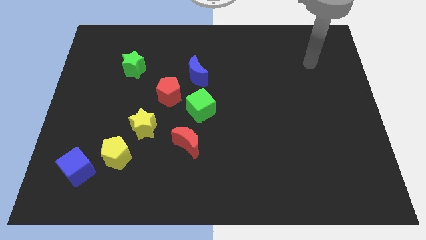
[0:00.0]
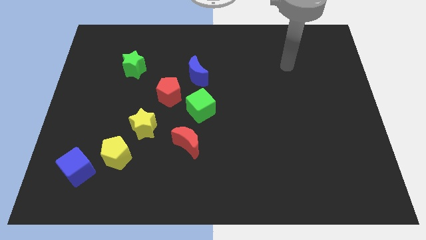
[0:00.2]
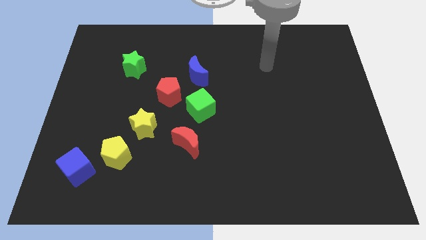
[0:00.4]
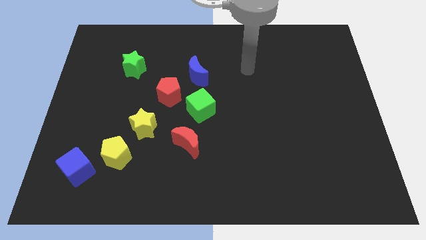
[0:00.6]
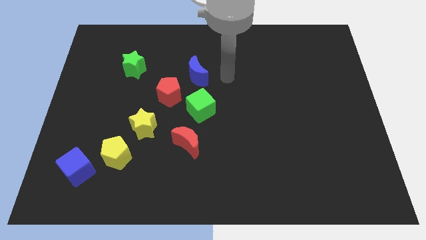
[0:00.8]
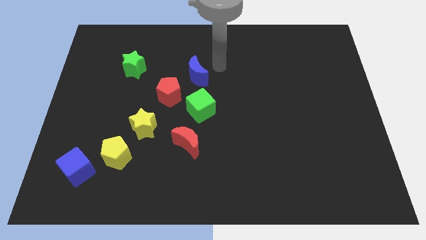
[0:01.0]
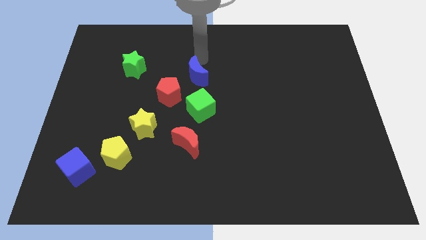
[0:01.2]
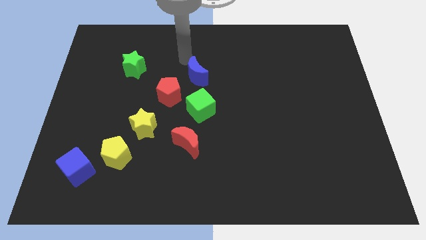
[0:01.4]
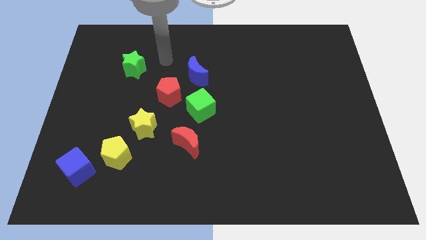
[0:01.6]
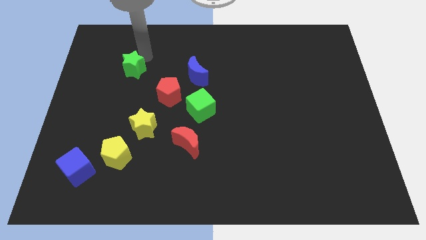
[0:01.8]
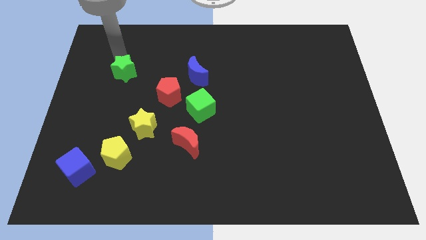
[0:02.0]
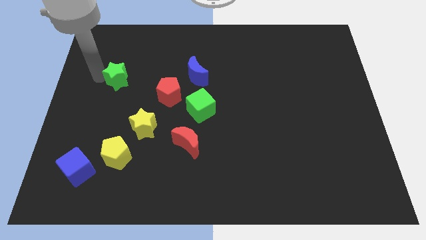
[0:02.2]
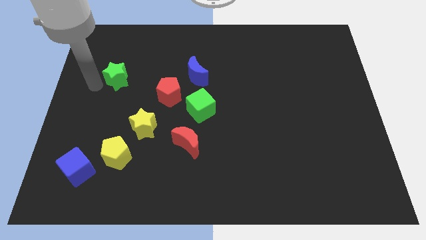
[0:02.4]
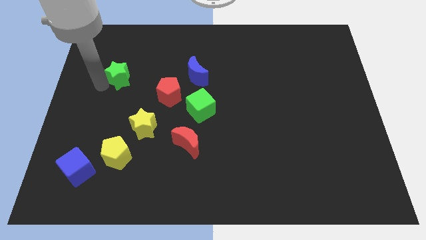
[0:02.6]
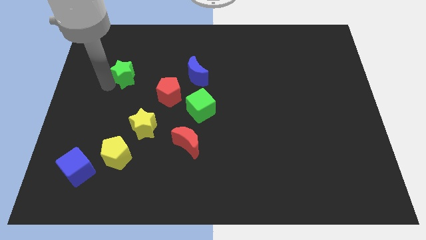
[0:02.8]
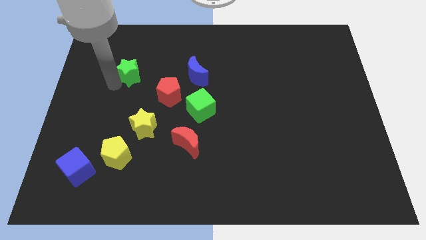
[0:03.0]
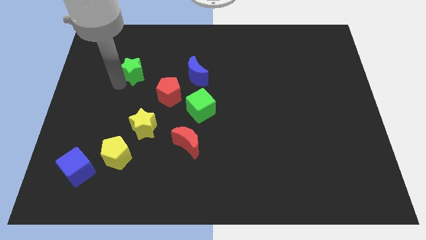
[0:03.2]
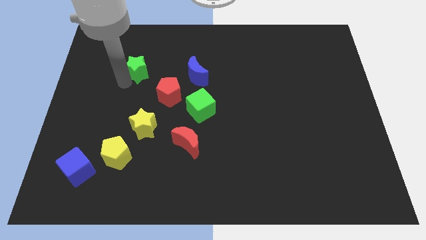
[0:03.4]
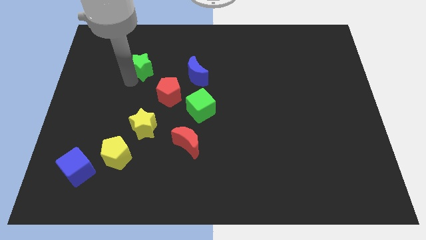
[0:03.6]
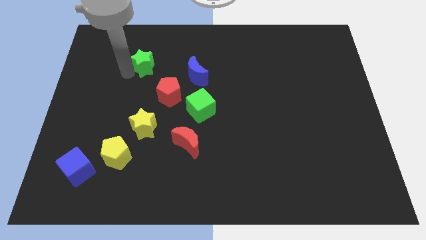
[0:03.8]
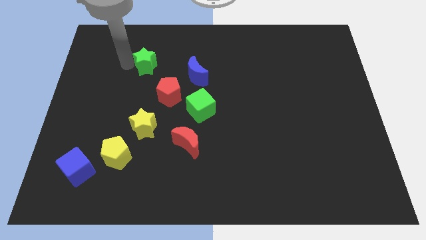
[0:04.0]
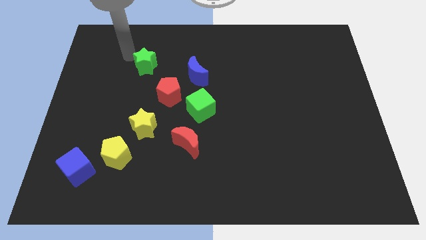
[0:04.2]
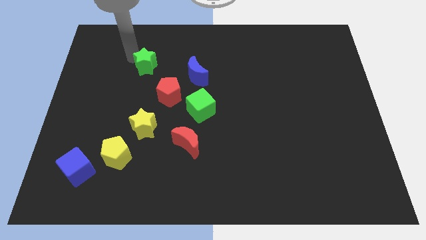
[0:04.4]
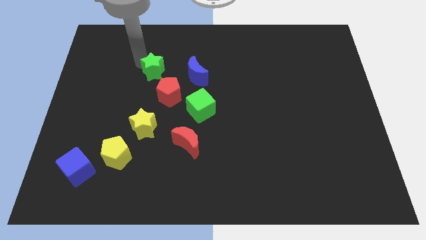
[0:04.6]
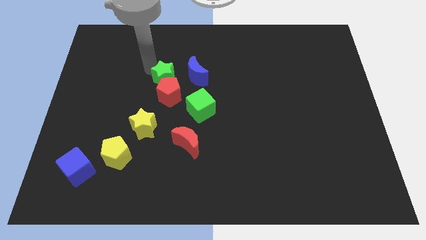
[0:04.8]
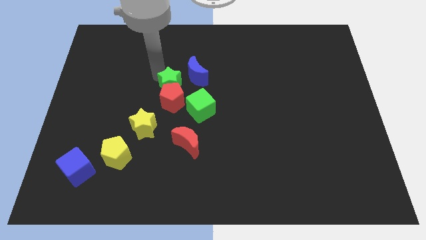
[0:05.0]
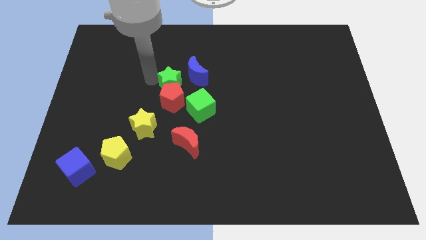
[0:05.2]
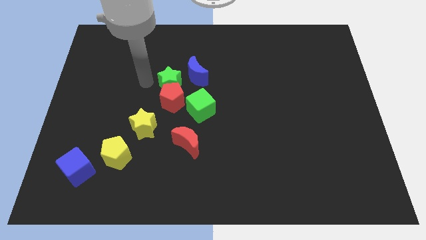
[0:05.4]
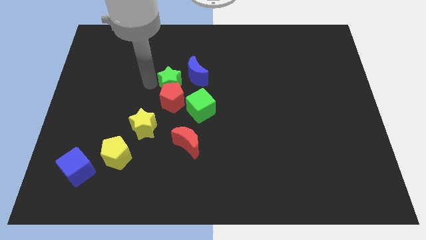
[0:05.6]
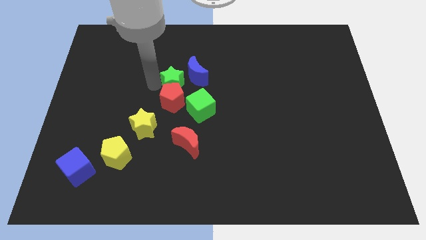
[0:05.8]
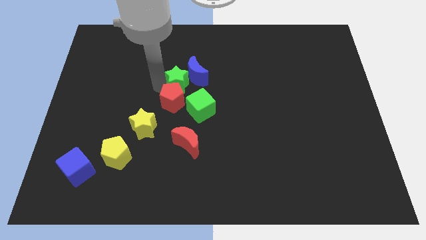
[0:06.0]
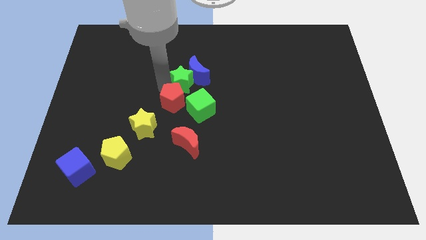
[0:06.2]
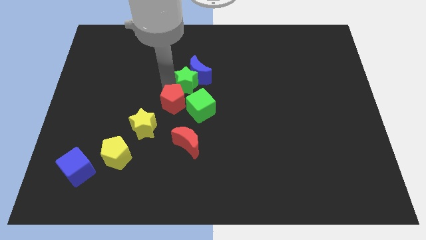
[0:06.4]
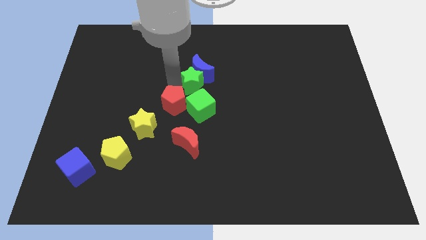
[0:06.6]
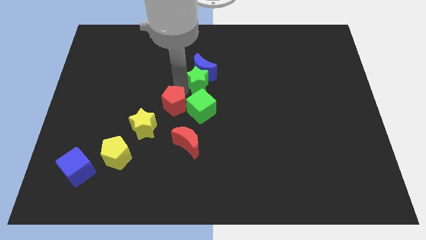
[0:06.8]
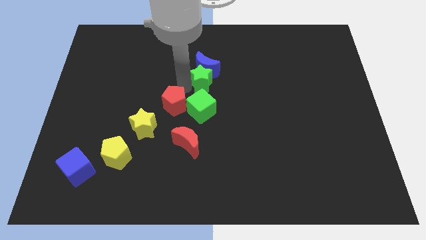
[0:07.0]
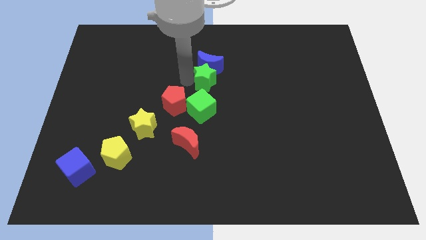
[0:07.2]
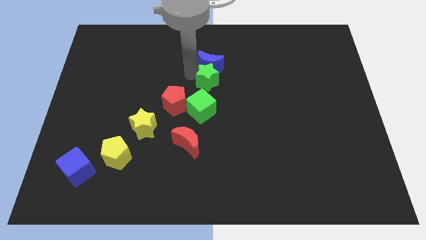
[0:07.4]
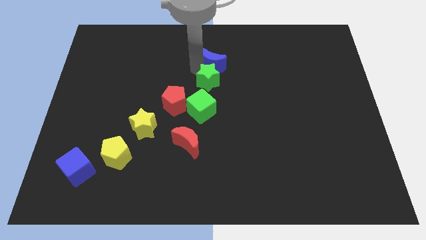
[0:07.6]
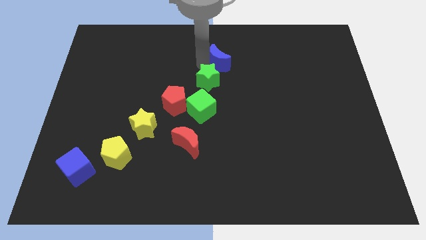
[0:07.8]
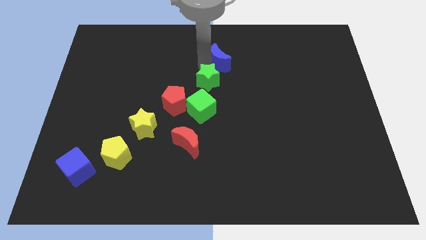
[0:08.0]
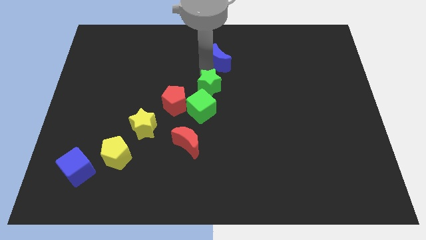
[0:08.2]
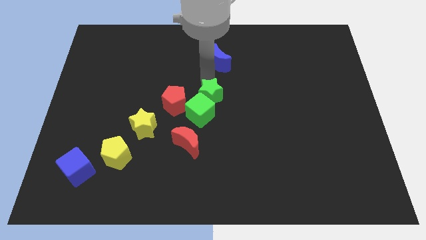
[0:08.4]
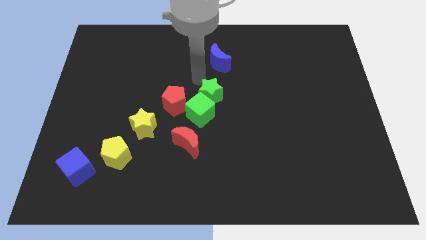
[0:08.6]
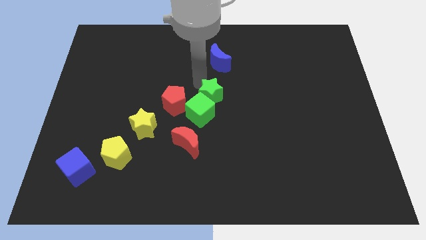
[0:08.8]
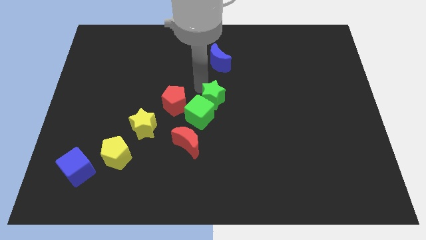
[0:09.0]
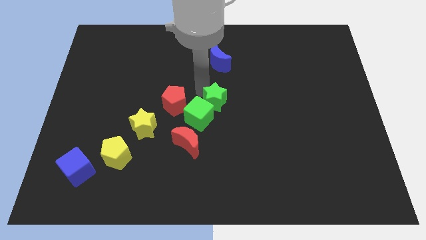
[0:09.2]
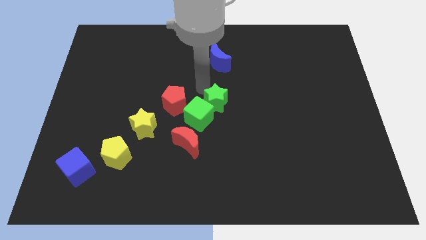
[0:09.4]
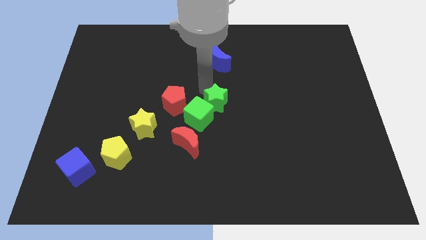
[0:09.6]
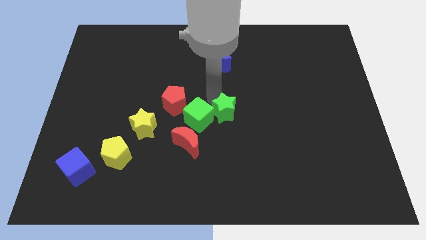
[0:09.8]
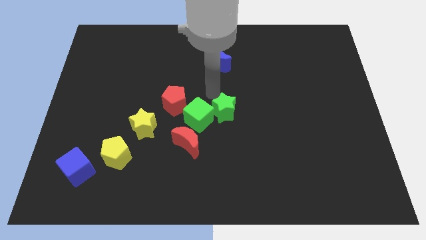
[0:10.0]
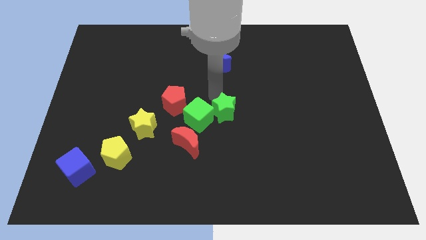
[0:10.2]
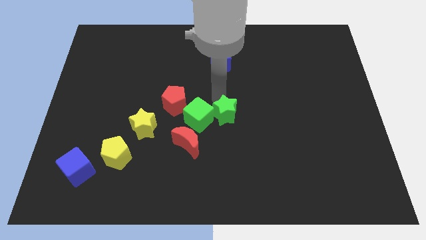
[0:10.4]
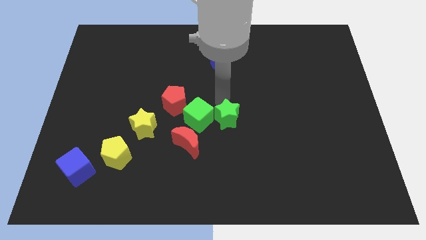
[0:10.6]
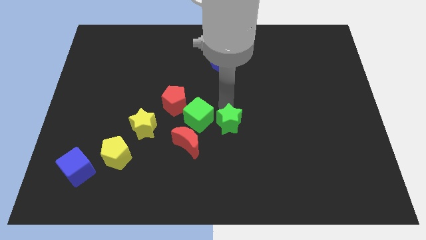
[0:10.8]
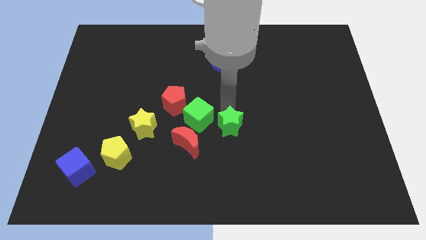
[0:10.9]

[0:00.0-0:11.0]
slide the green star to the right of the red moon

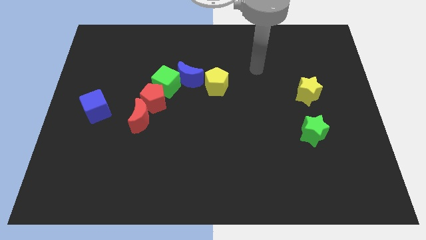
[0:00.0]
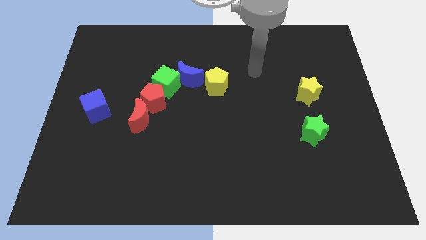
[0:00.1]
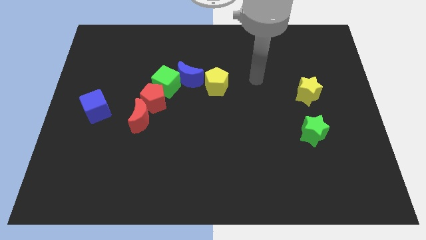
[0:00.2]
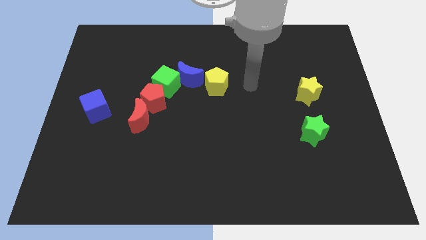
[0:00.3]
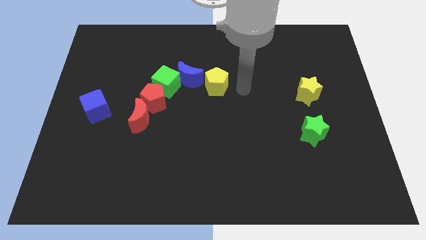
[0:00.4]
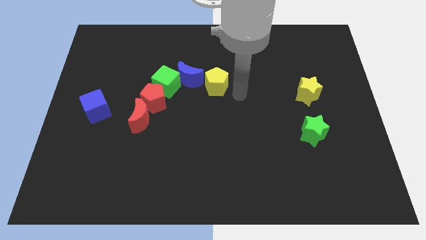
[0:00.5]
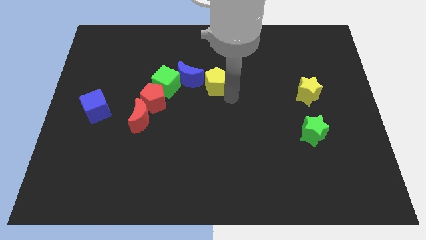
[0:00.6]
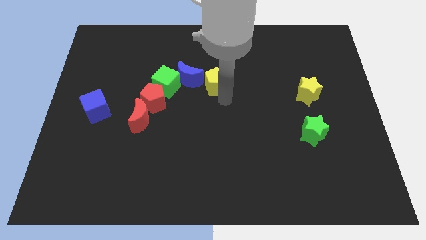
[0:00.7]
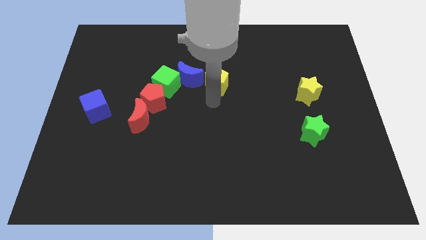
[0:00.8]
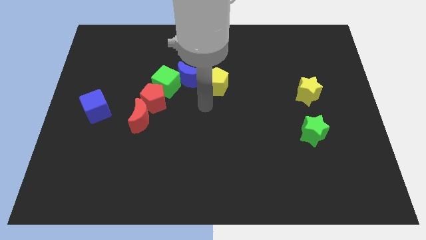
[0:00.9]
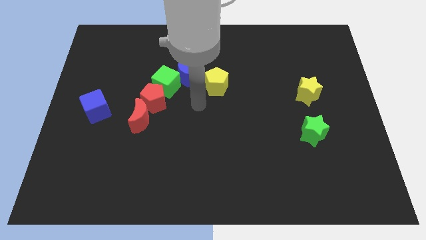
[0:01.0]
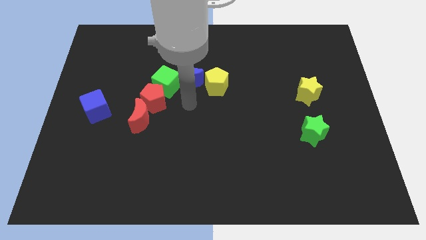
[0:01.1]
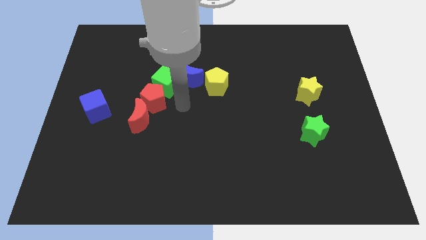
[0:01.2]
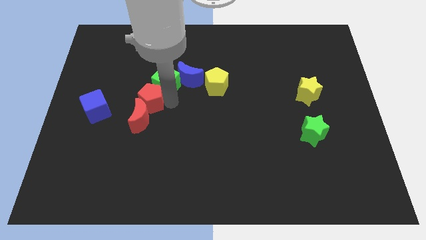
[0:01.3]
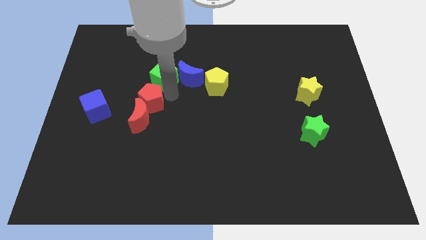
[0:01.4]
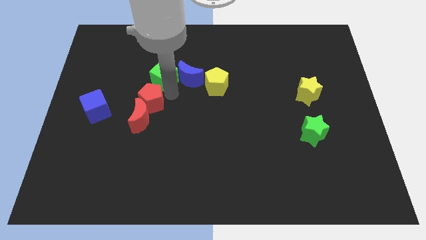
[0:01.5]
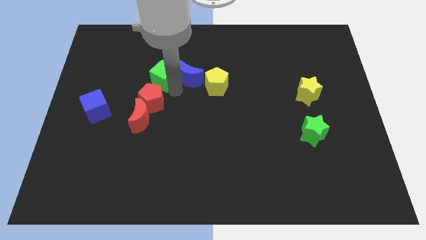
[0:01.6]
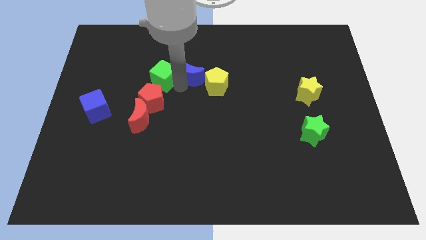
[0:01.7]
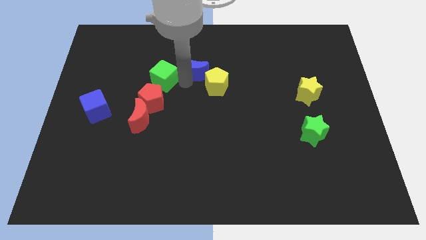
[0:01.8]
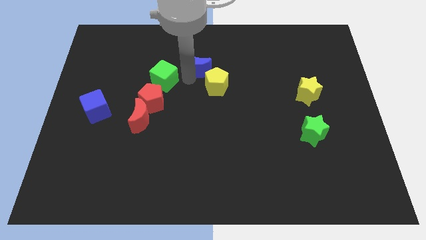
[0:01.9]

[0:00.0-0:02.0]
push the blue moon to the top of the yellow pentagon

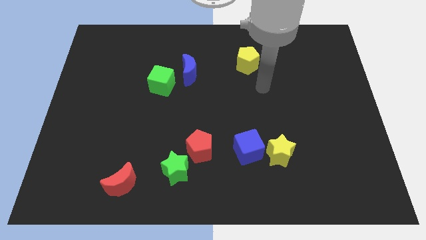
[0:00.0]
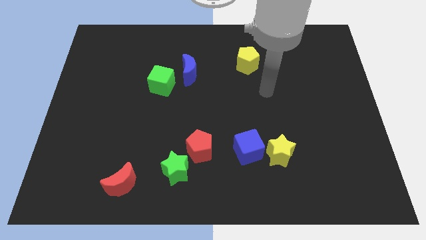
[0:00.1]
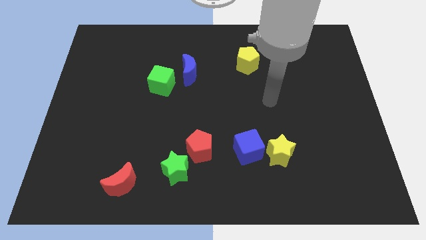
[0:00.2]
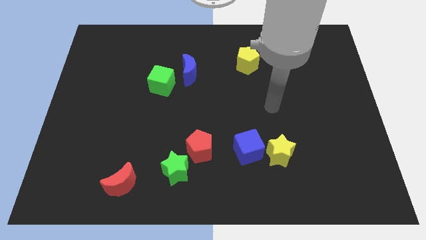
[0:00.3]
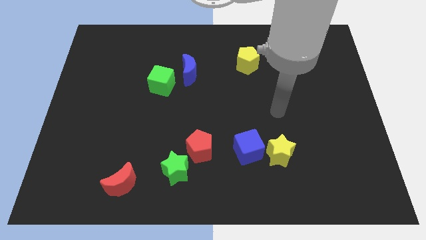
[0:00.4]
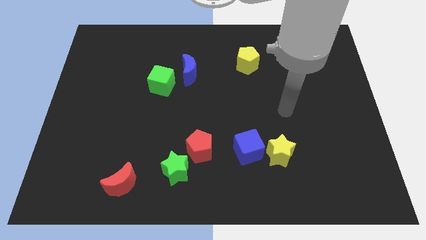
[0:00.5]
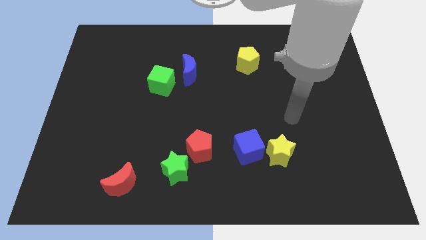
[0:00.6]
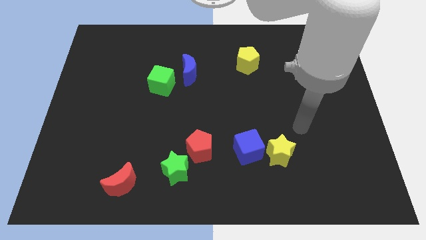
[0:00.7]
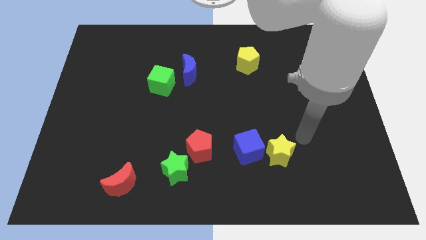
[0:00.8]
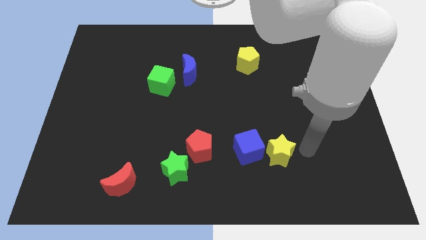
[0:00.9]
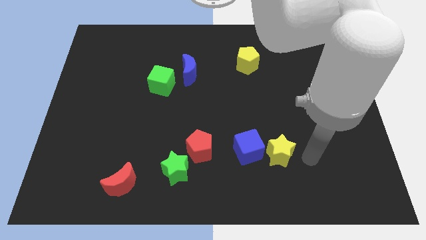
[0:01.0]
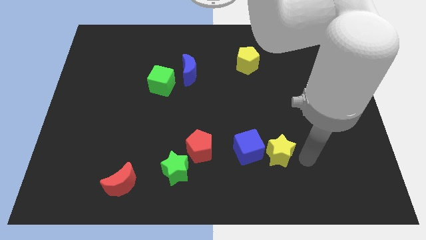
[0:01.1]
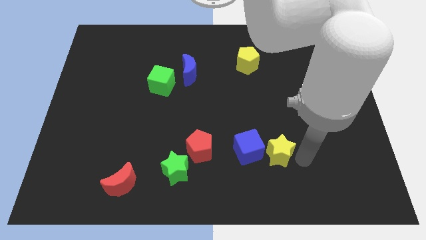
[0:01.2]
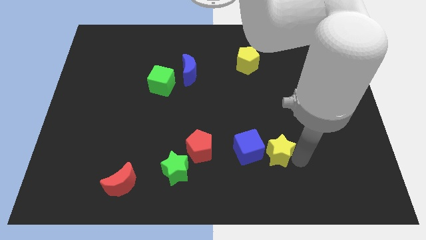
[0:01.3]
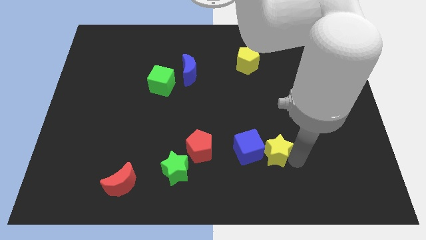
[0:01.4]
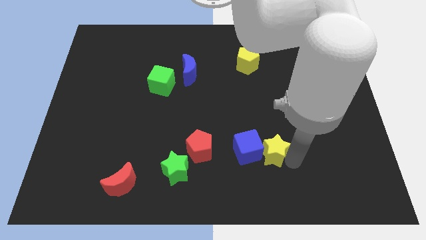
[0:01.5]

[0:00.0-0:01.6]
push the yellow star to the right of the red pentagon
